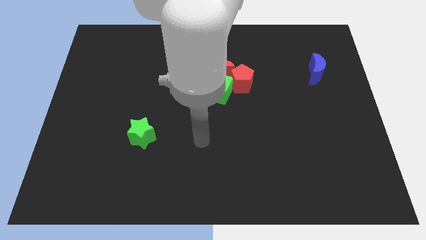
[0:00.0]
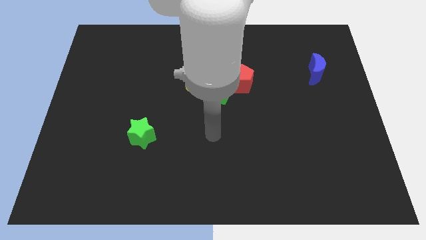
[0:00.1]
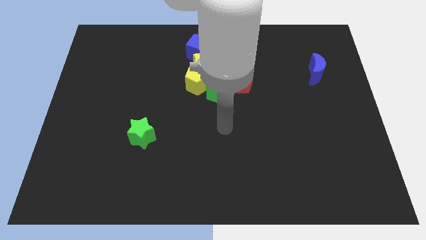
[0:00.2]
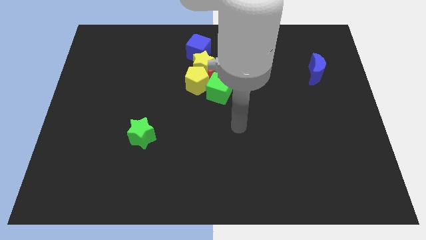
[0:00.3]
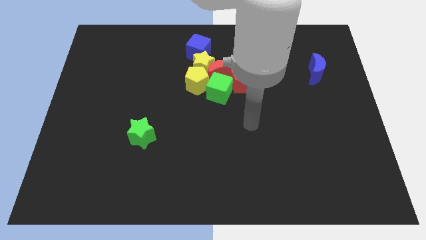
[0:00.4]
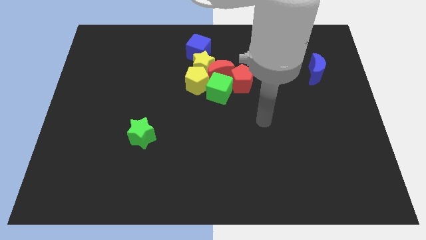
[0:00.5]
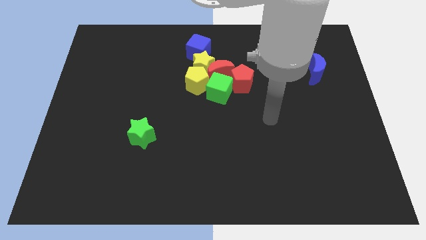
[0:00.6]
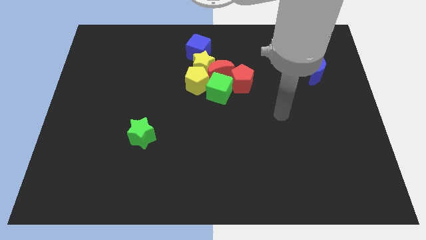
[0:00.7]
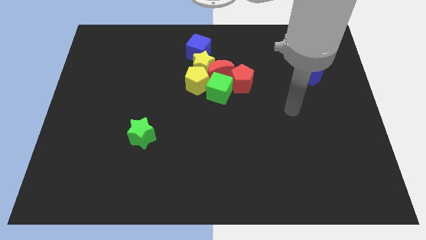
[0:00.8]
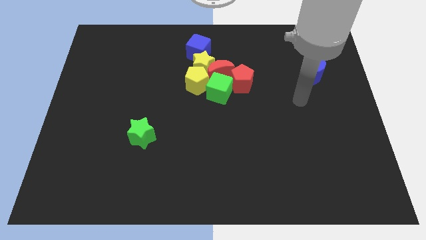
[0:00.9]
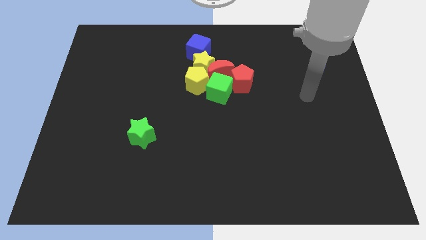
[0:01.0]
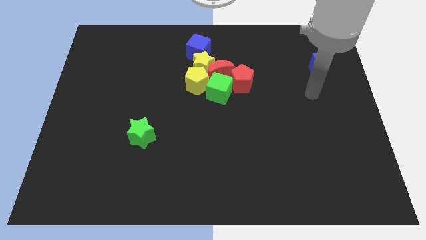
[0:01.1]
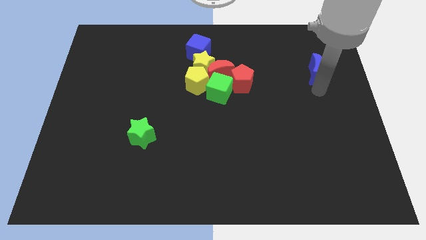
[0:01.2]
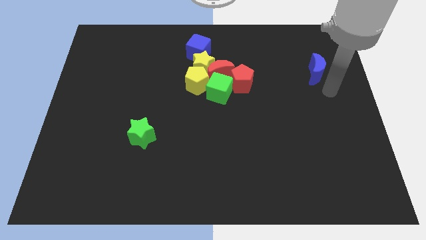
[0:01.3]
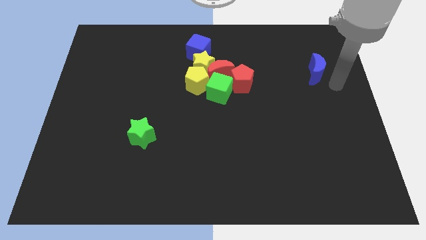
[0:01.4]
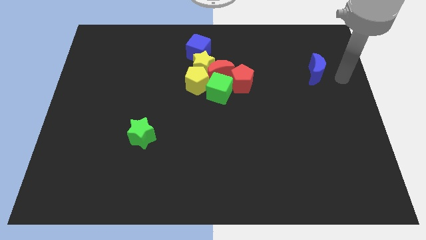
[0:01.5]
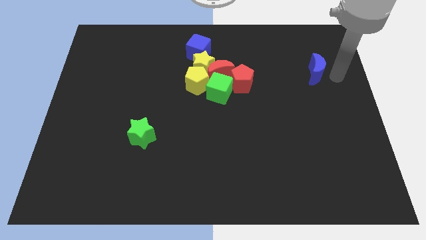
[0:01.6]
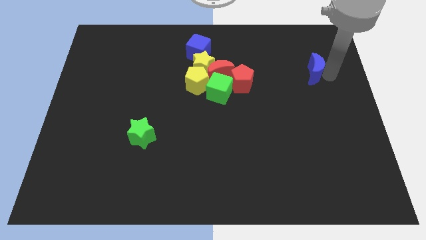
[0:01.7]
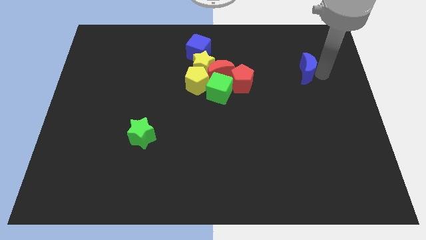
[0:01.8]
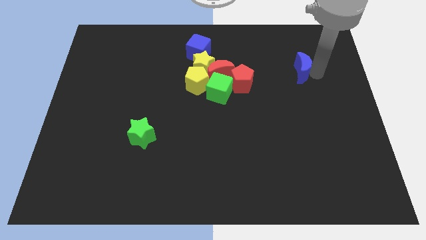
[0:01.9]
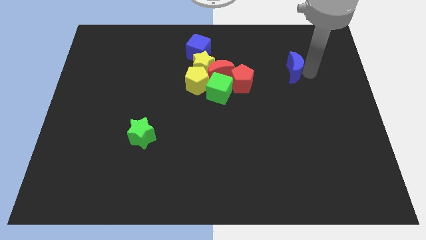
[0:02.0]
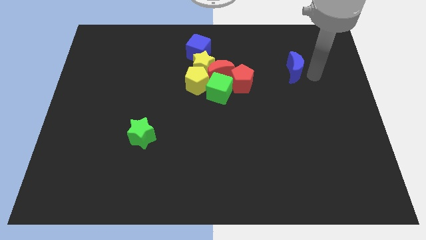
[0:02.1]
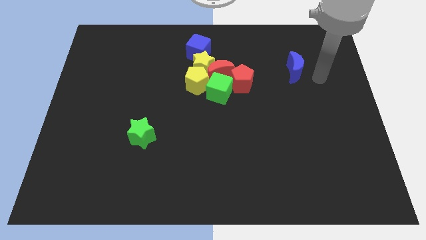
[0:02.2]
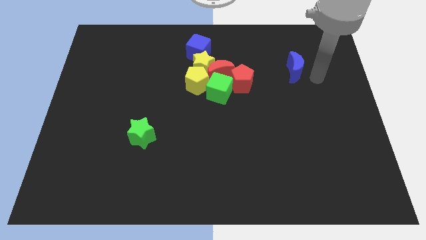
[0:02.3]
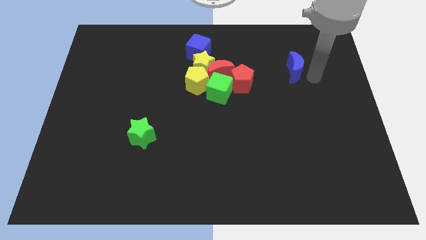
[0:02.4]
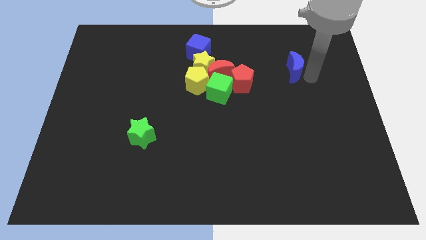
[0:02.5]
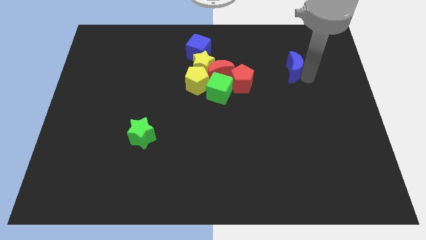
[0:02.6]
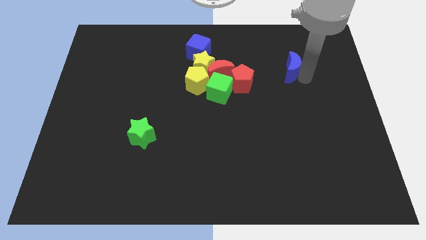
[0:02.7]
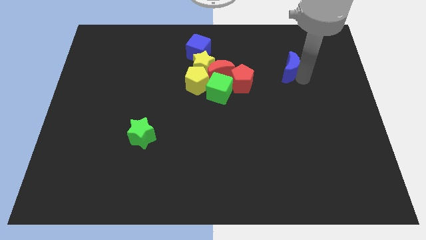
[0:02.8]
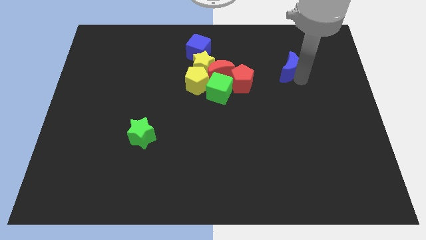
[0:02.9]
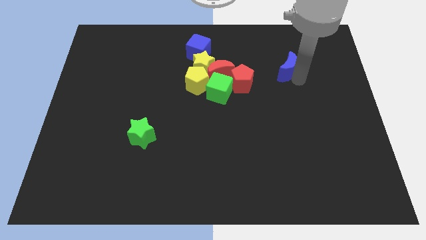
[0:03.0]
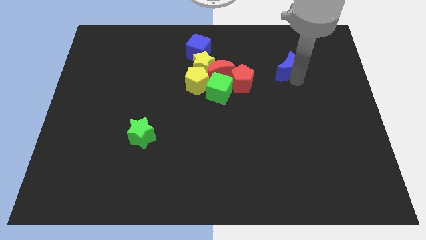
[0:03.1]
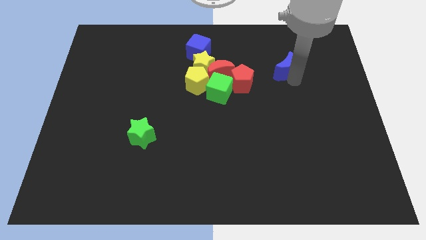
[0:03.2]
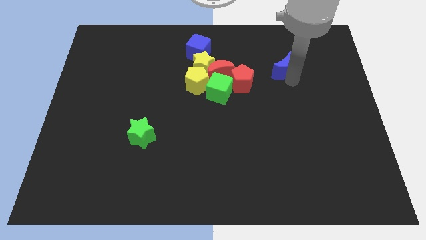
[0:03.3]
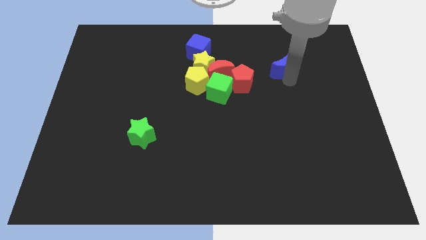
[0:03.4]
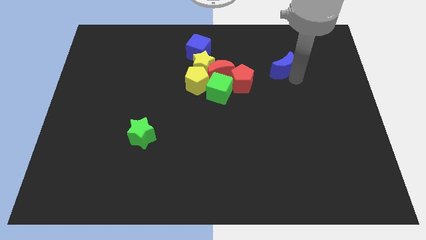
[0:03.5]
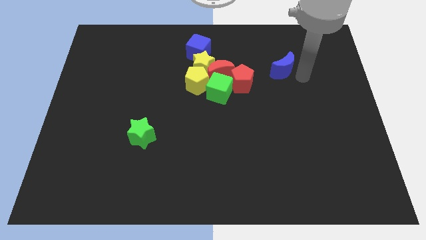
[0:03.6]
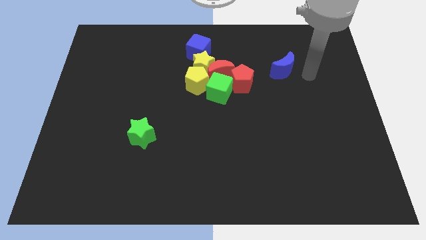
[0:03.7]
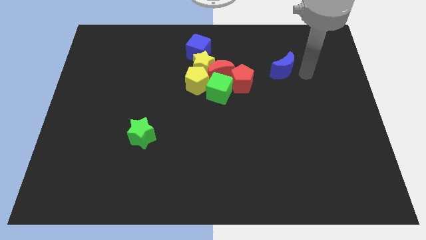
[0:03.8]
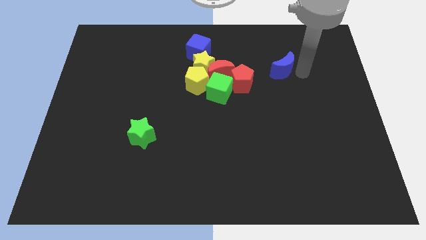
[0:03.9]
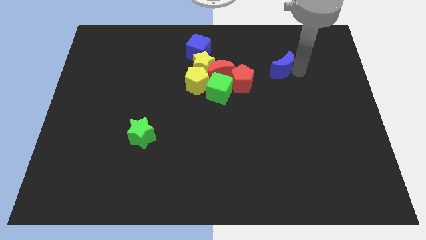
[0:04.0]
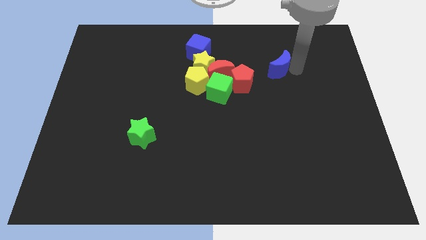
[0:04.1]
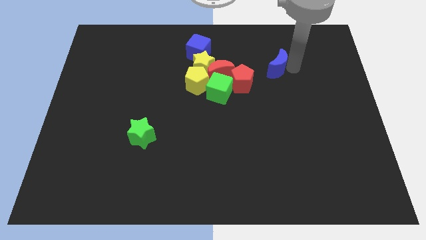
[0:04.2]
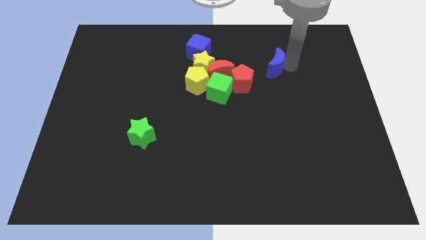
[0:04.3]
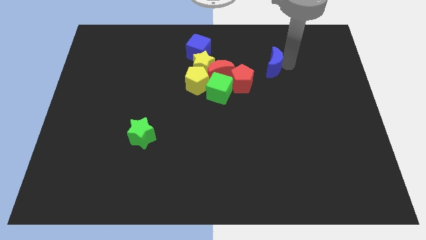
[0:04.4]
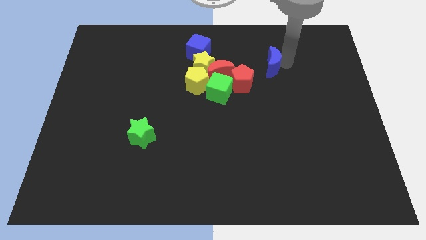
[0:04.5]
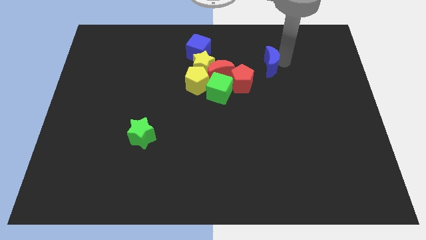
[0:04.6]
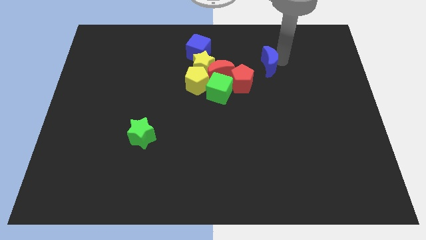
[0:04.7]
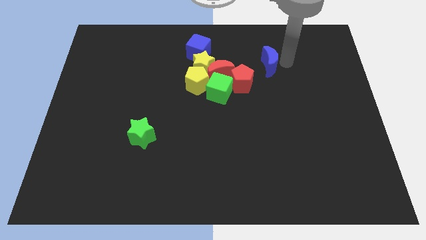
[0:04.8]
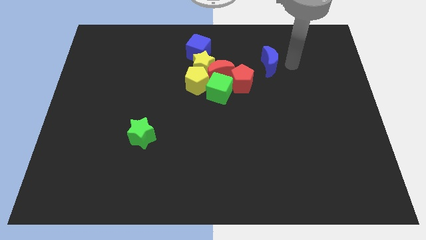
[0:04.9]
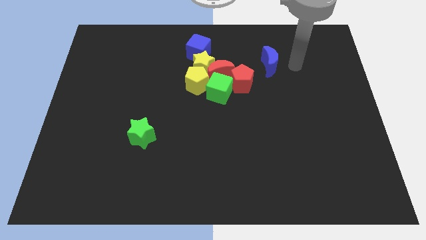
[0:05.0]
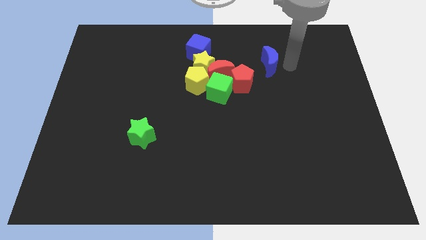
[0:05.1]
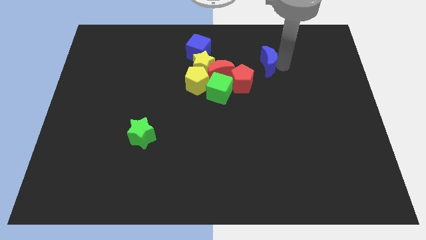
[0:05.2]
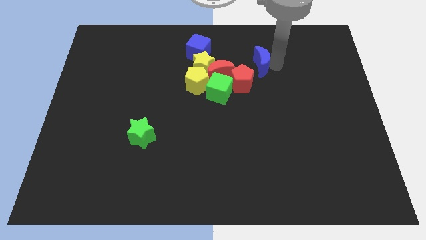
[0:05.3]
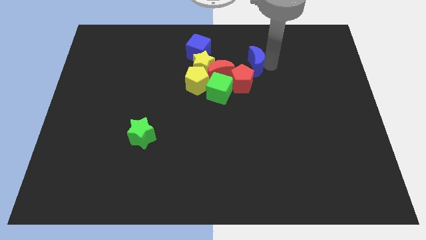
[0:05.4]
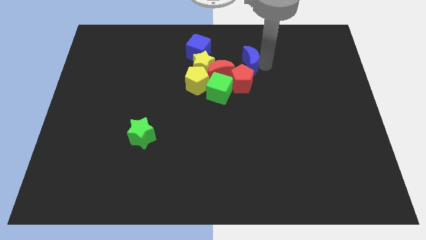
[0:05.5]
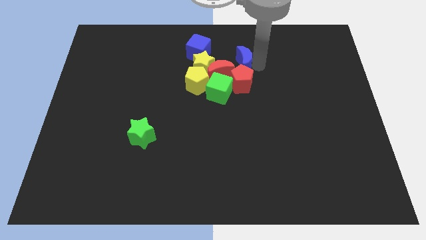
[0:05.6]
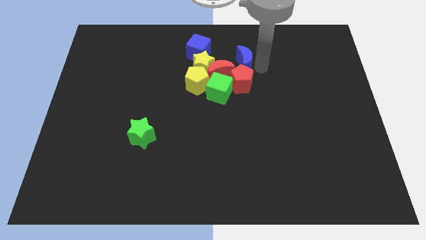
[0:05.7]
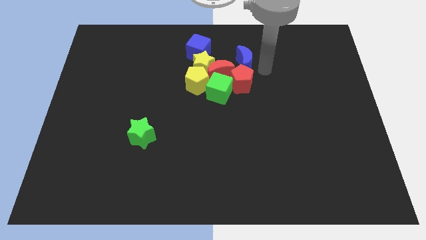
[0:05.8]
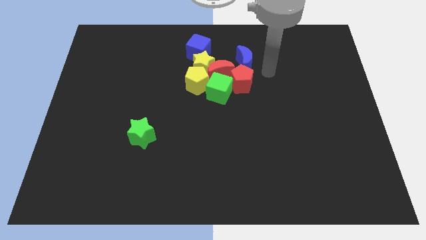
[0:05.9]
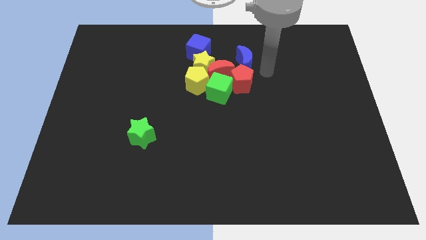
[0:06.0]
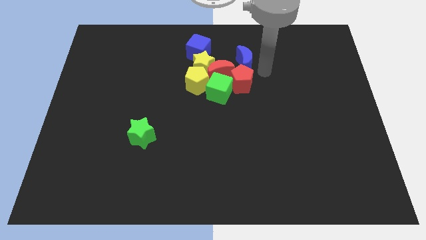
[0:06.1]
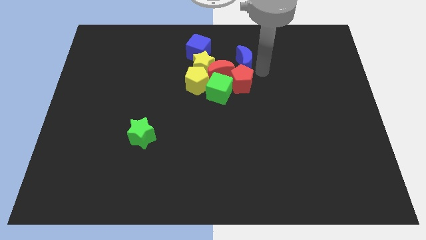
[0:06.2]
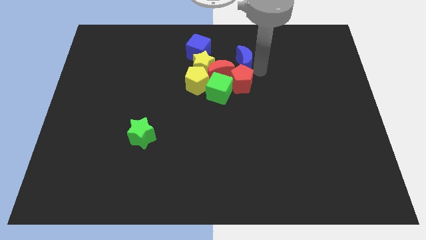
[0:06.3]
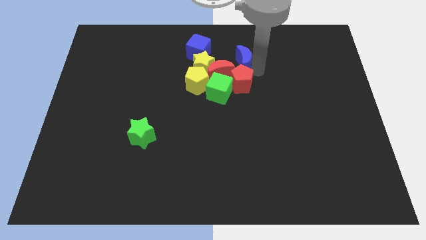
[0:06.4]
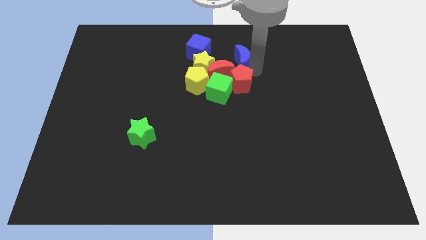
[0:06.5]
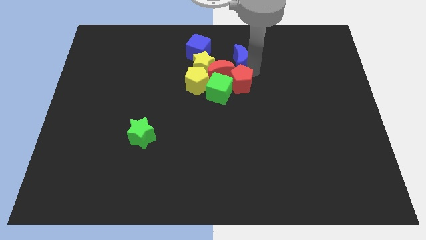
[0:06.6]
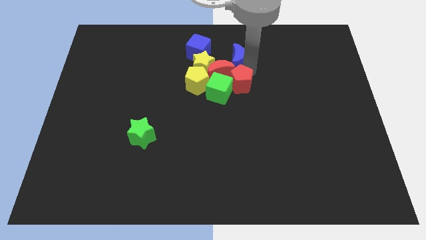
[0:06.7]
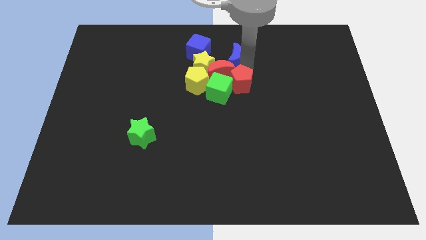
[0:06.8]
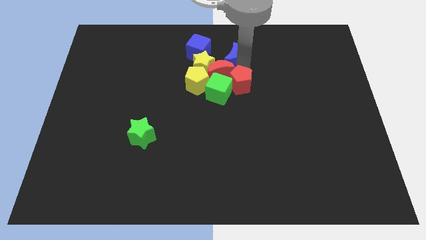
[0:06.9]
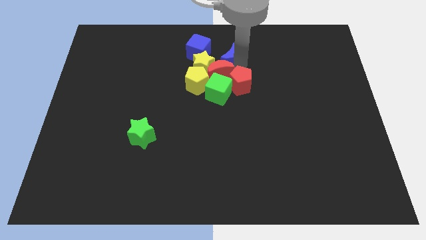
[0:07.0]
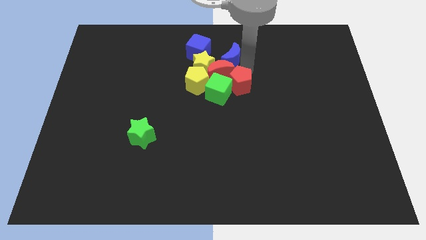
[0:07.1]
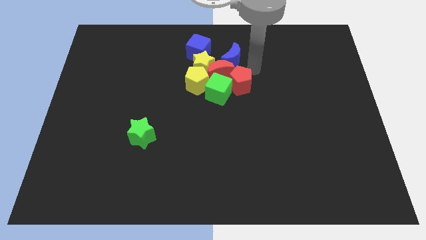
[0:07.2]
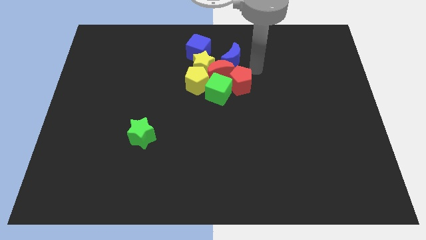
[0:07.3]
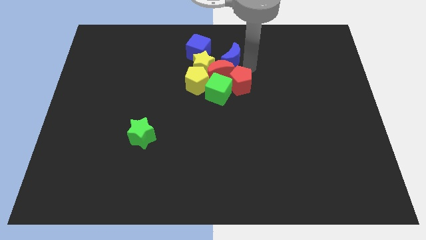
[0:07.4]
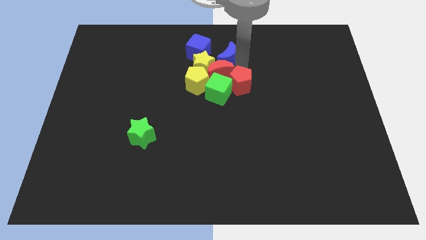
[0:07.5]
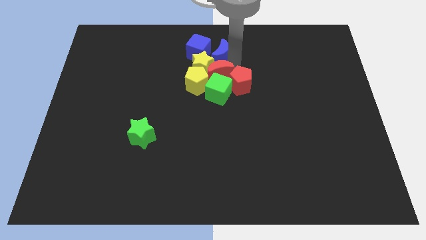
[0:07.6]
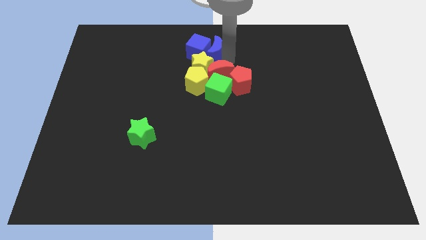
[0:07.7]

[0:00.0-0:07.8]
put the blue moon towards the blue cube

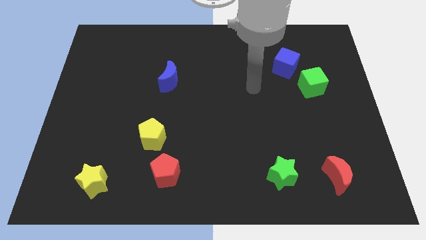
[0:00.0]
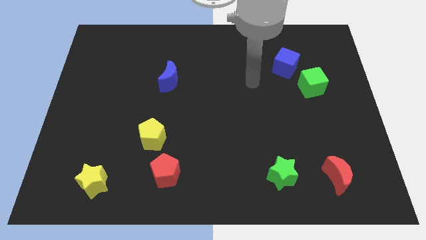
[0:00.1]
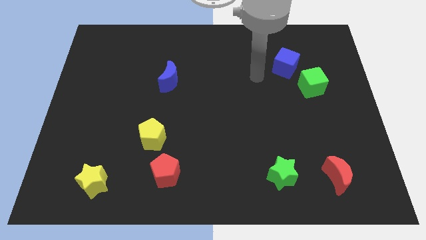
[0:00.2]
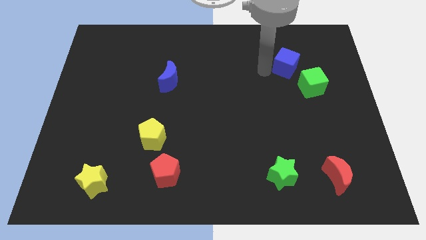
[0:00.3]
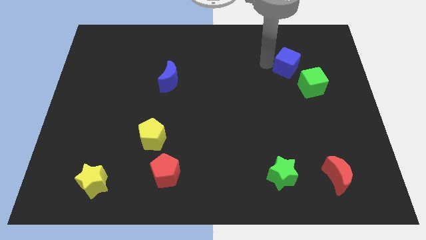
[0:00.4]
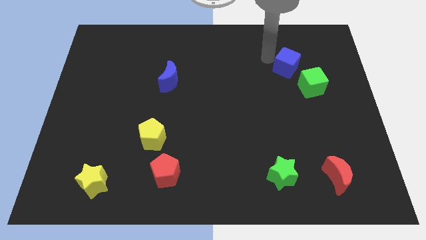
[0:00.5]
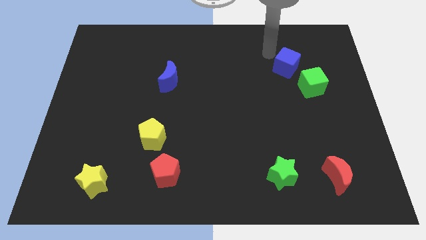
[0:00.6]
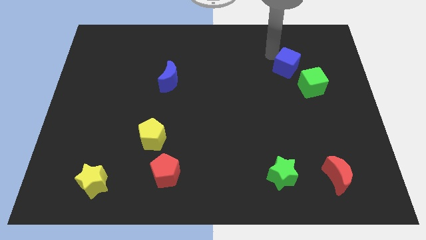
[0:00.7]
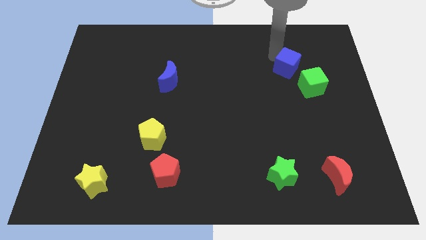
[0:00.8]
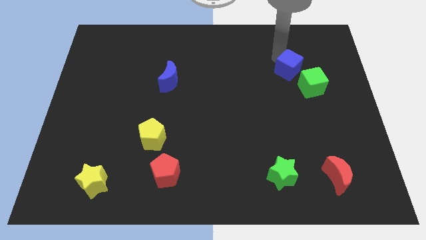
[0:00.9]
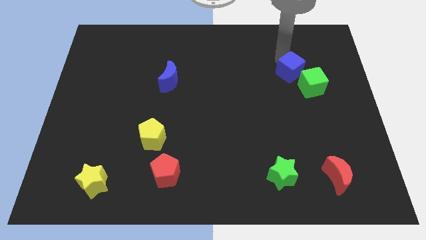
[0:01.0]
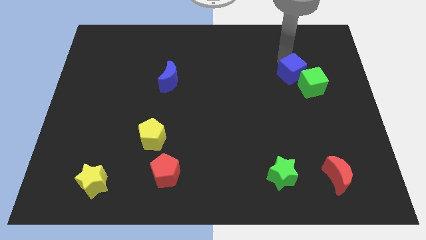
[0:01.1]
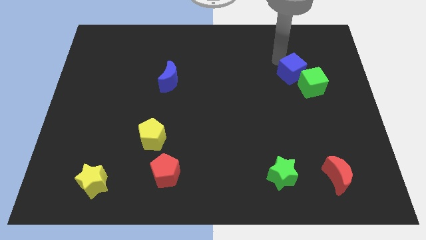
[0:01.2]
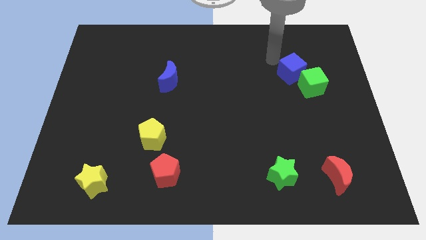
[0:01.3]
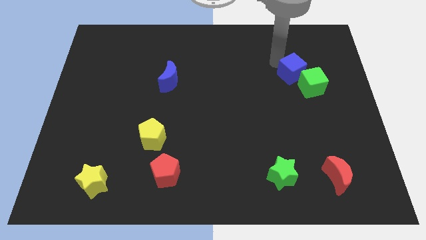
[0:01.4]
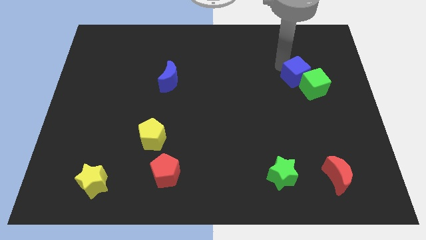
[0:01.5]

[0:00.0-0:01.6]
move the blue cube close to the green cube
